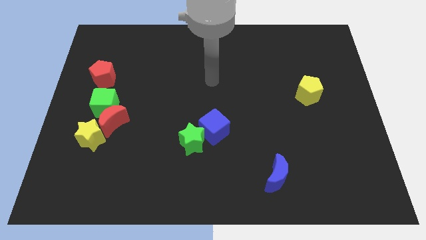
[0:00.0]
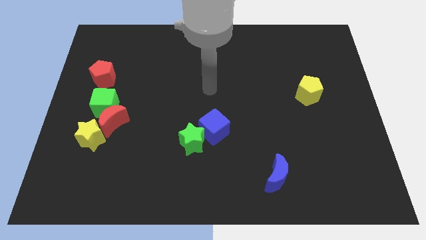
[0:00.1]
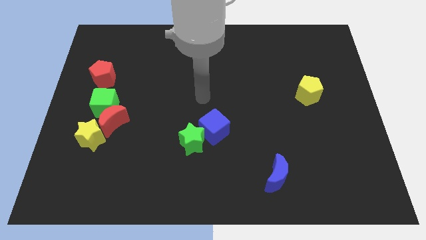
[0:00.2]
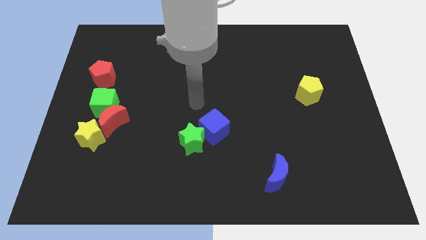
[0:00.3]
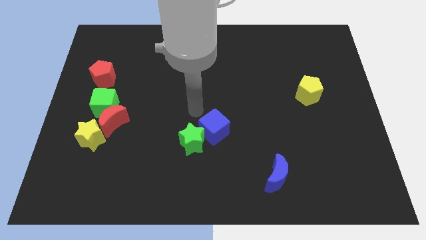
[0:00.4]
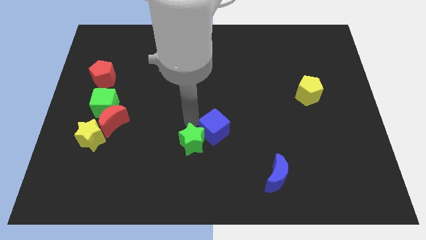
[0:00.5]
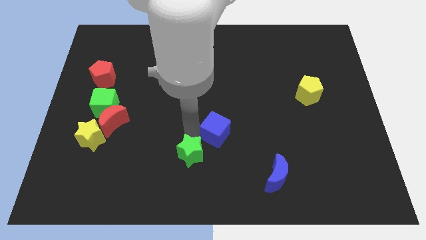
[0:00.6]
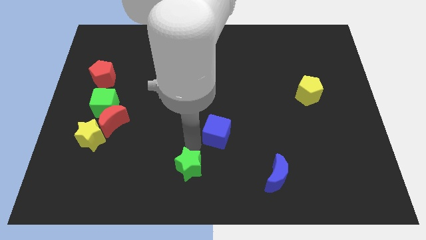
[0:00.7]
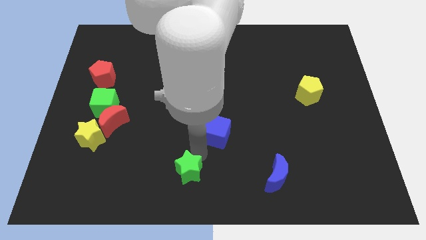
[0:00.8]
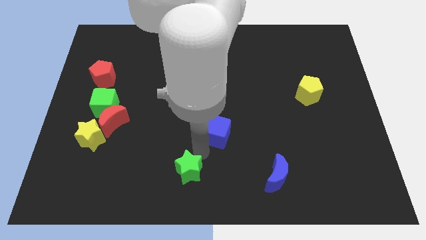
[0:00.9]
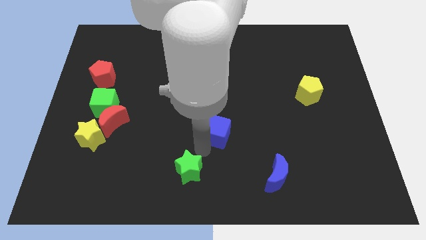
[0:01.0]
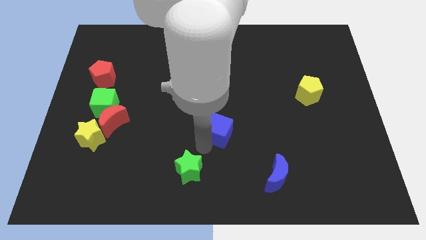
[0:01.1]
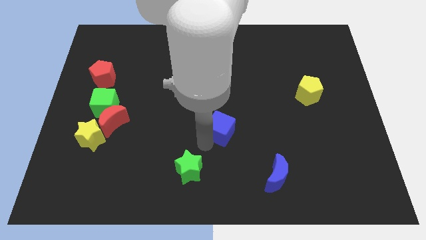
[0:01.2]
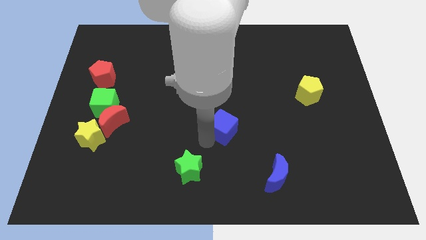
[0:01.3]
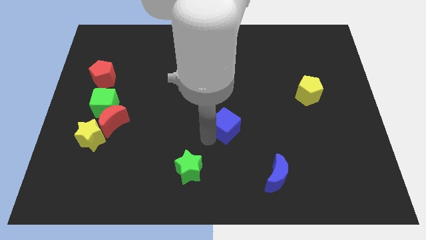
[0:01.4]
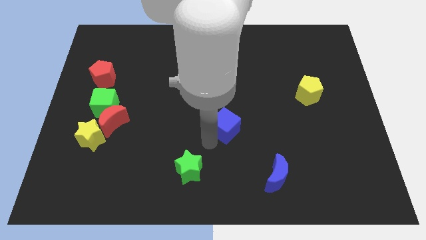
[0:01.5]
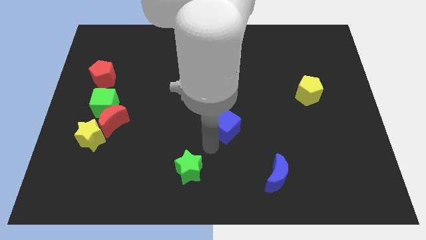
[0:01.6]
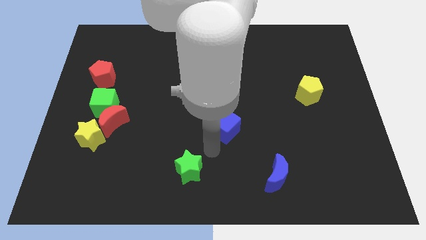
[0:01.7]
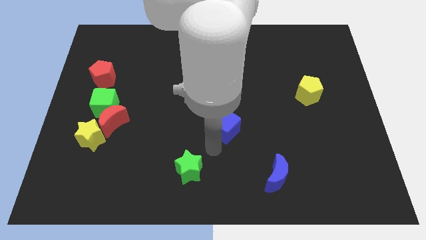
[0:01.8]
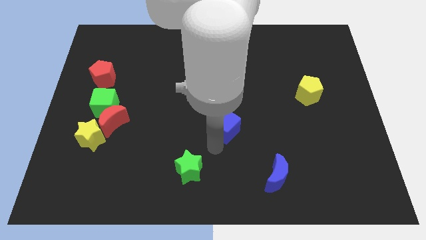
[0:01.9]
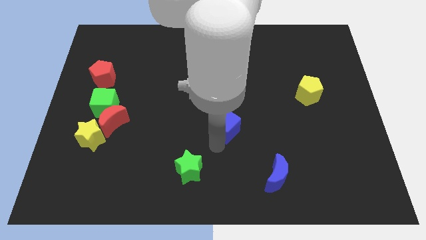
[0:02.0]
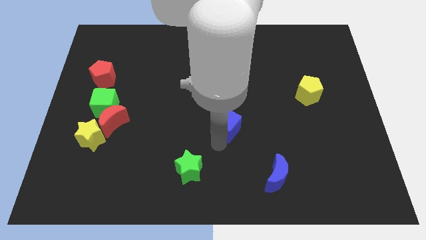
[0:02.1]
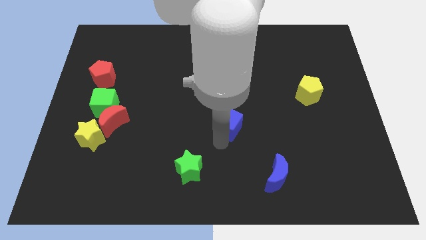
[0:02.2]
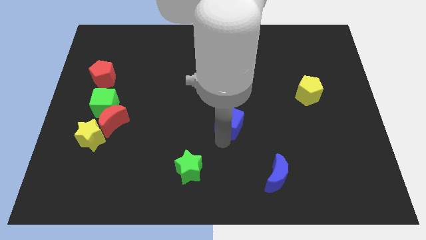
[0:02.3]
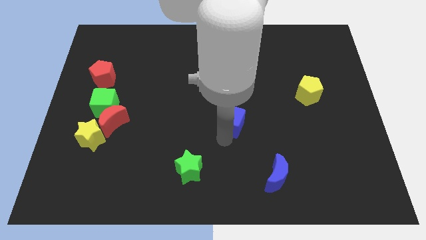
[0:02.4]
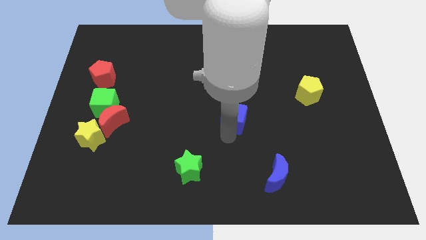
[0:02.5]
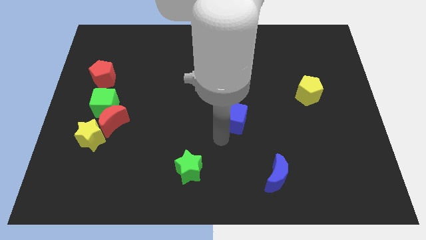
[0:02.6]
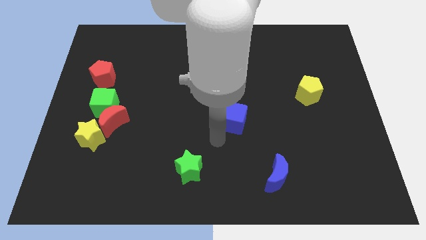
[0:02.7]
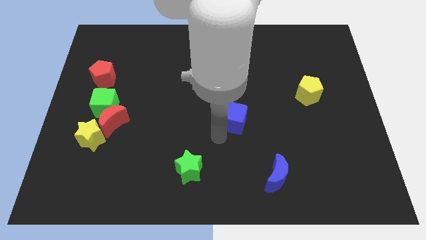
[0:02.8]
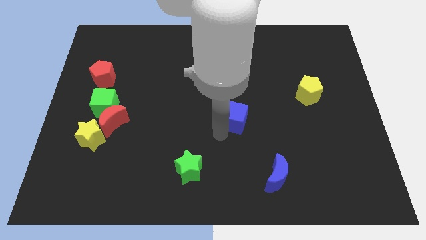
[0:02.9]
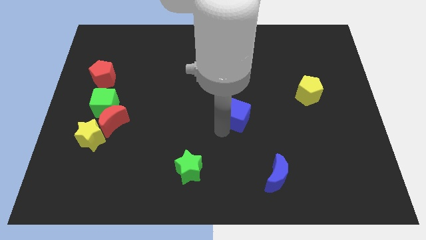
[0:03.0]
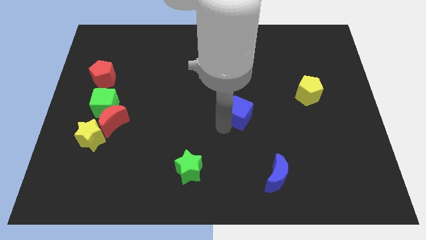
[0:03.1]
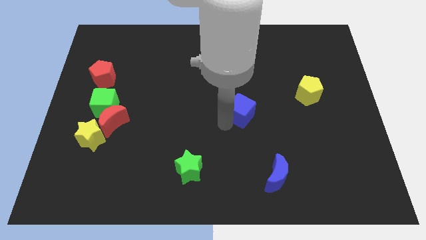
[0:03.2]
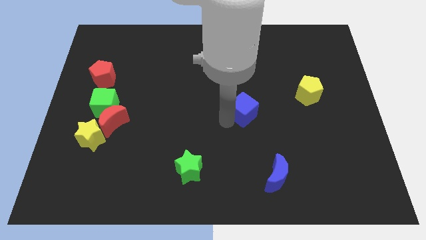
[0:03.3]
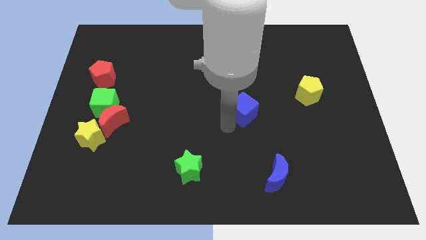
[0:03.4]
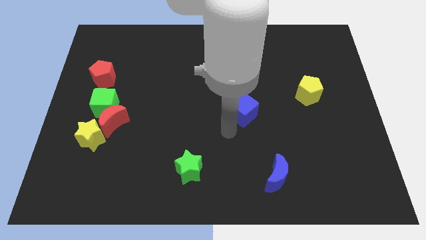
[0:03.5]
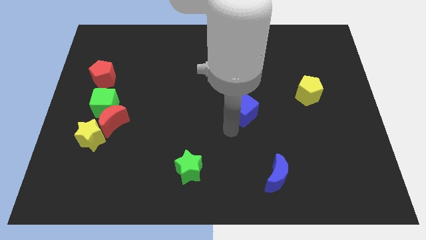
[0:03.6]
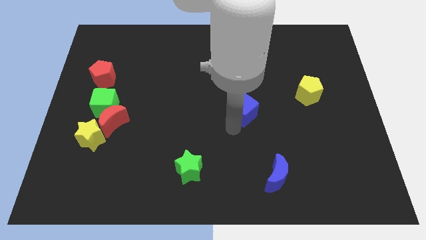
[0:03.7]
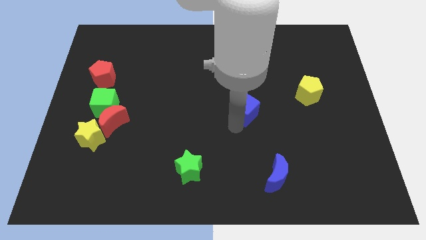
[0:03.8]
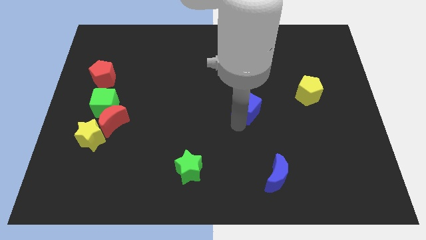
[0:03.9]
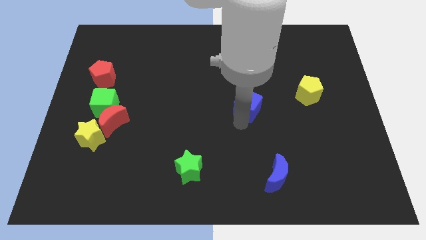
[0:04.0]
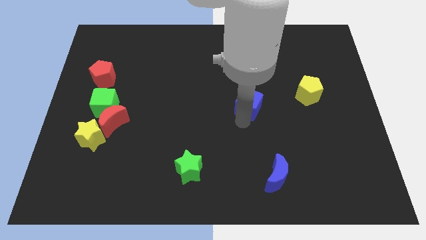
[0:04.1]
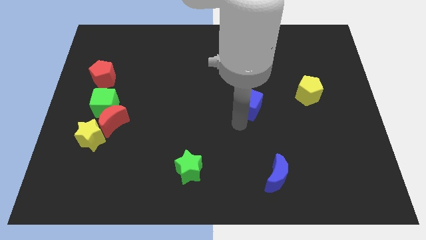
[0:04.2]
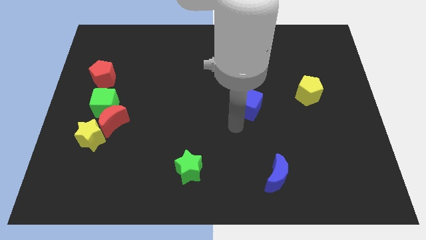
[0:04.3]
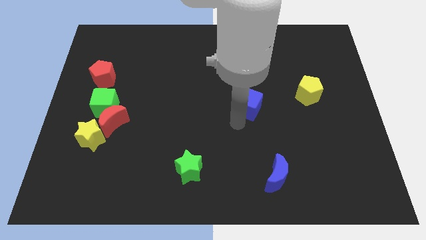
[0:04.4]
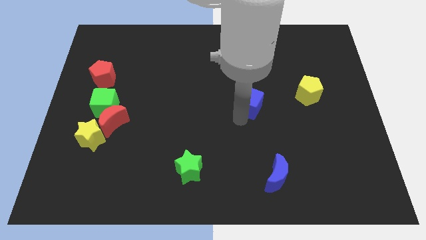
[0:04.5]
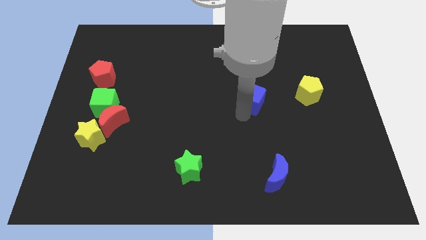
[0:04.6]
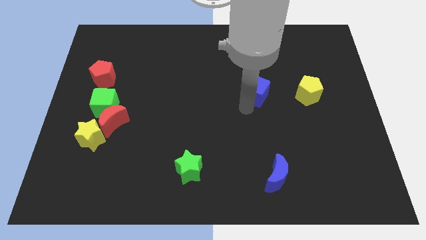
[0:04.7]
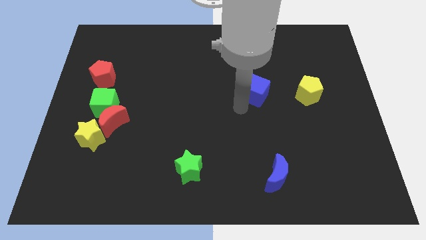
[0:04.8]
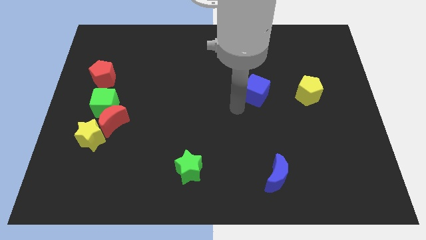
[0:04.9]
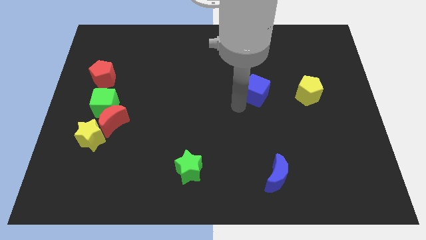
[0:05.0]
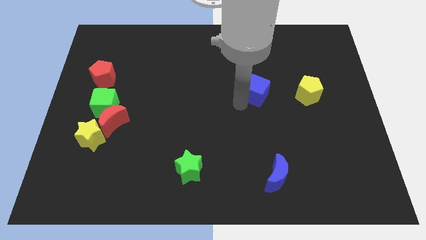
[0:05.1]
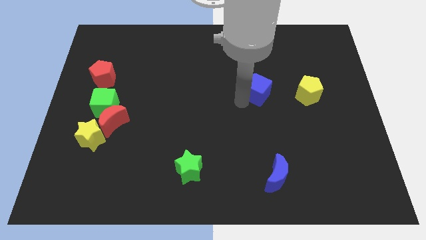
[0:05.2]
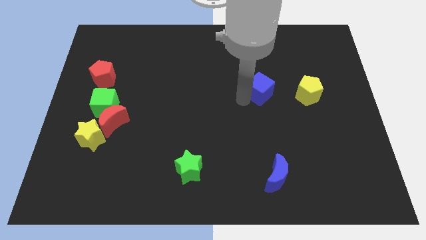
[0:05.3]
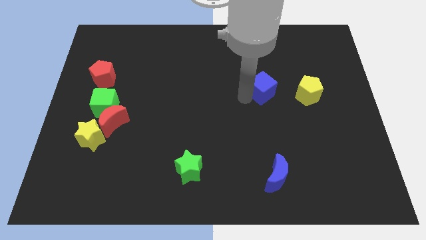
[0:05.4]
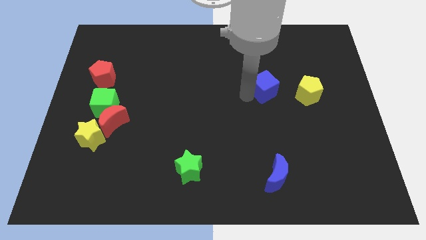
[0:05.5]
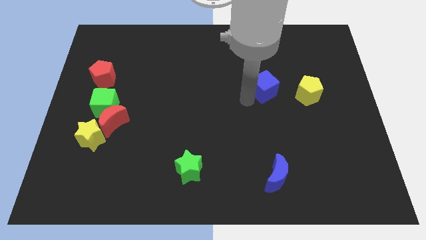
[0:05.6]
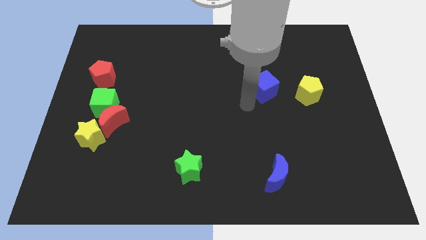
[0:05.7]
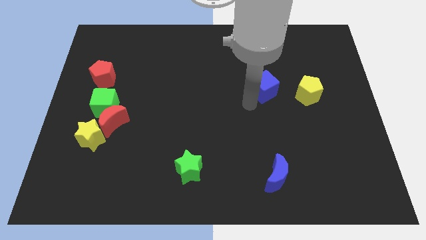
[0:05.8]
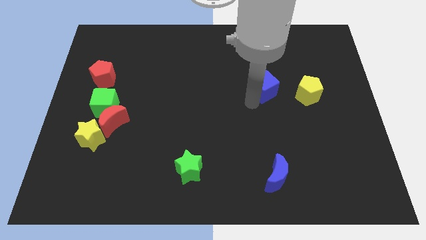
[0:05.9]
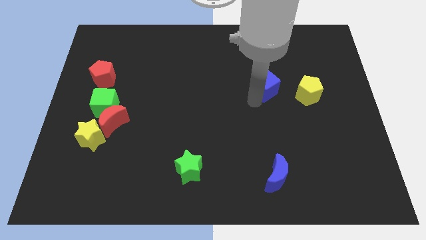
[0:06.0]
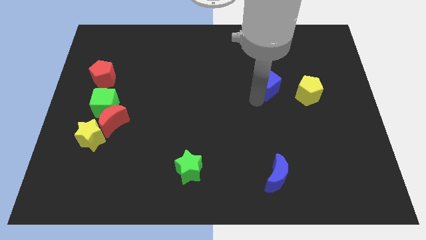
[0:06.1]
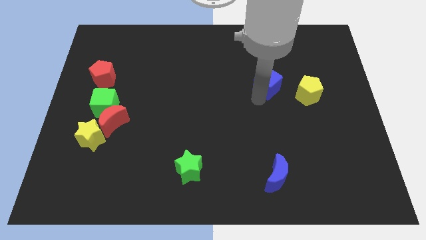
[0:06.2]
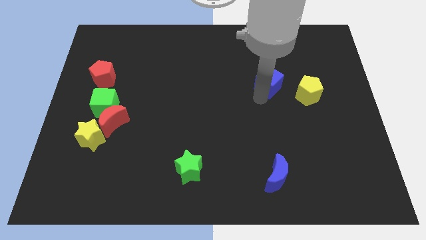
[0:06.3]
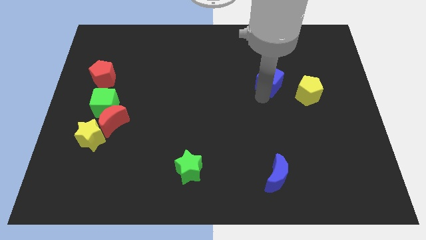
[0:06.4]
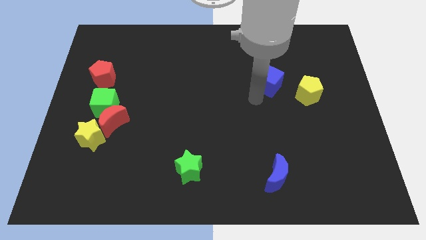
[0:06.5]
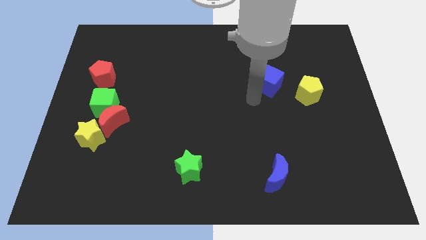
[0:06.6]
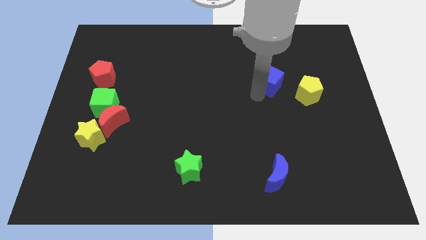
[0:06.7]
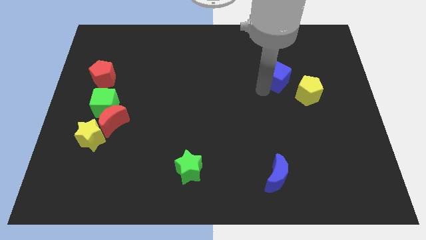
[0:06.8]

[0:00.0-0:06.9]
move the blue cube upwards and right diagonally

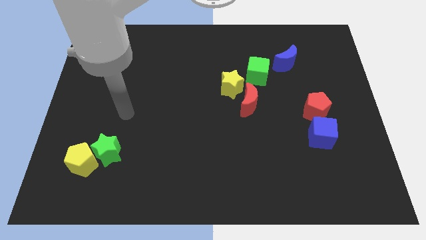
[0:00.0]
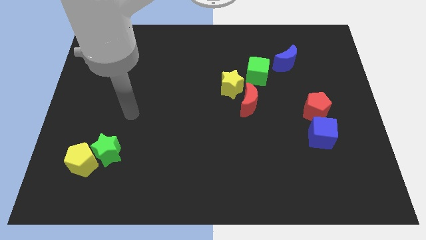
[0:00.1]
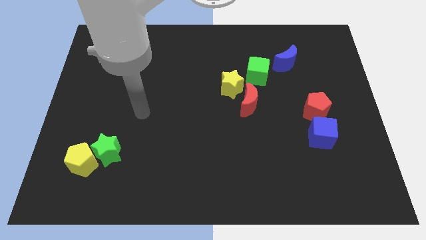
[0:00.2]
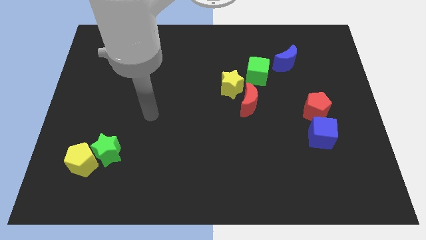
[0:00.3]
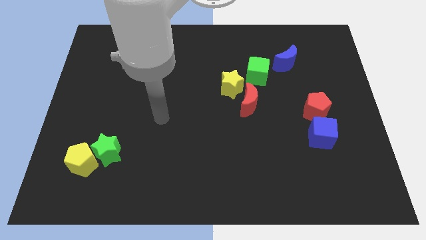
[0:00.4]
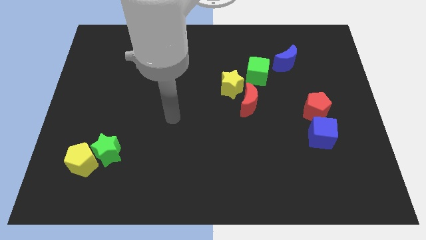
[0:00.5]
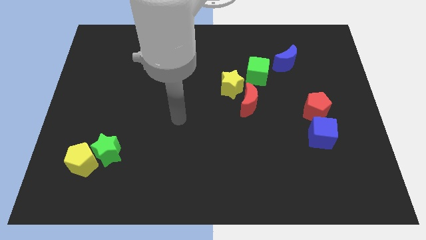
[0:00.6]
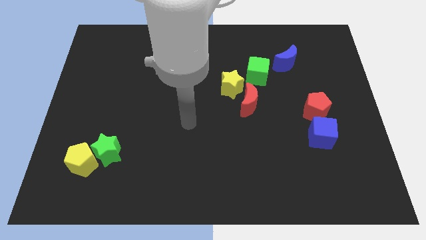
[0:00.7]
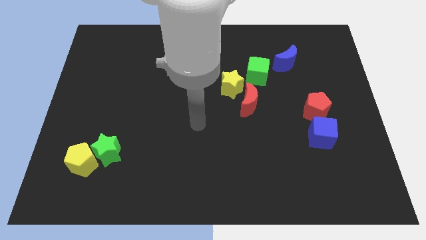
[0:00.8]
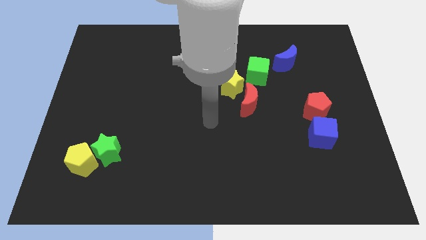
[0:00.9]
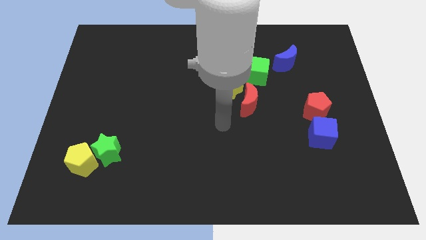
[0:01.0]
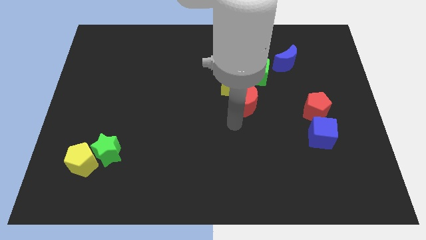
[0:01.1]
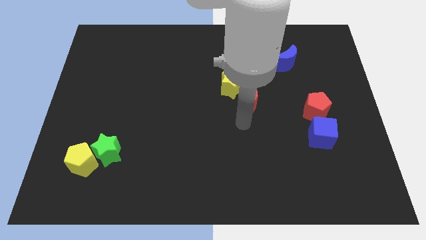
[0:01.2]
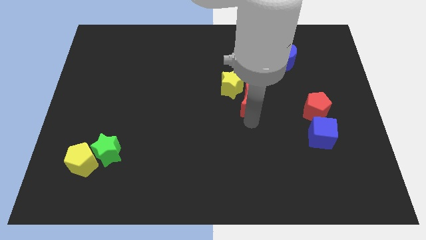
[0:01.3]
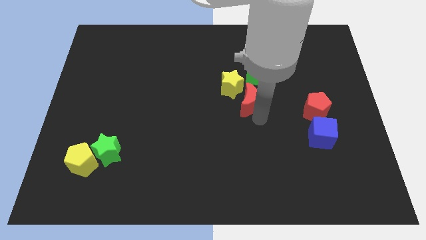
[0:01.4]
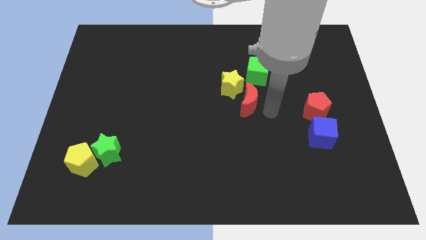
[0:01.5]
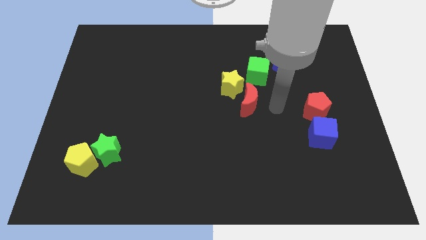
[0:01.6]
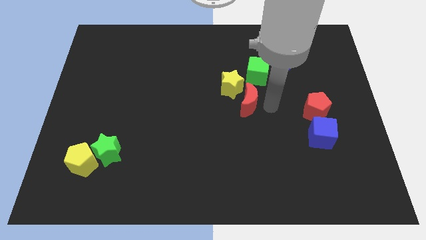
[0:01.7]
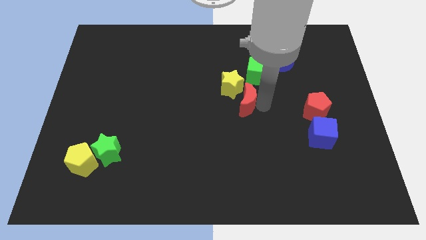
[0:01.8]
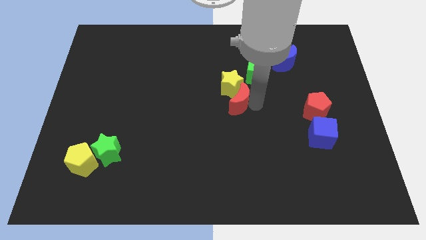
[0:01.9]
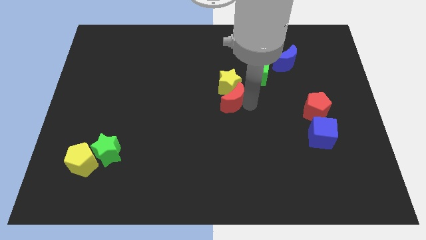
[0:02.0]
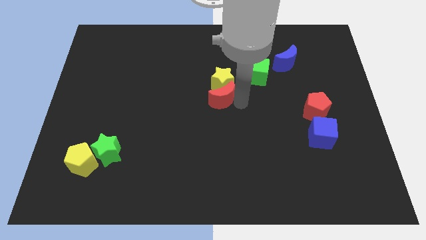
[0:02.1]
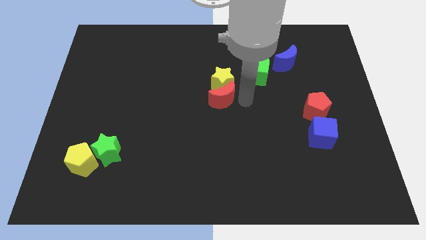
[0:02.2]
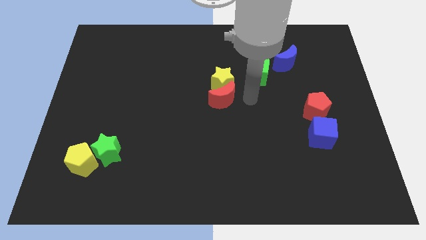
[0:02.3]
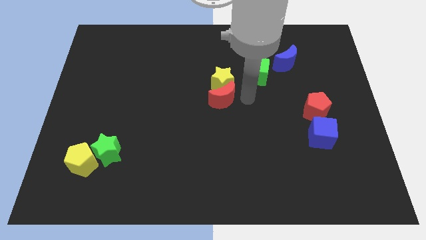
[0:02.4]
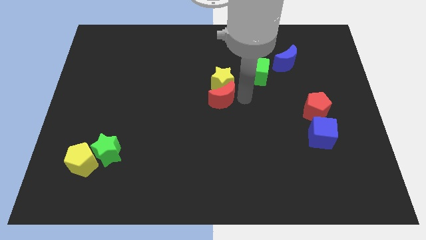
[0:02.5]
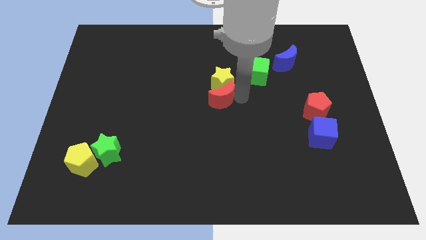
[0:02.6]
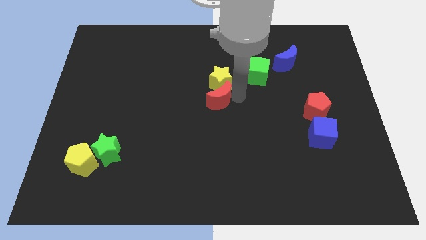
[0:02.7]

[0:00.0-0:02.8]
slightly slide the red moon left
